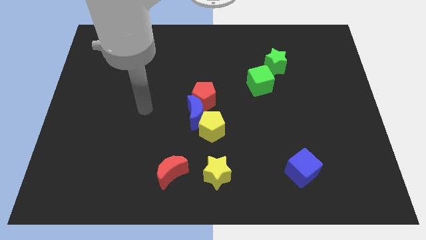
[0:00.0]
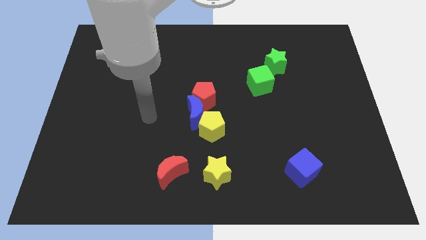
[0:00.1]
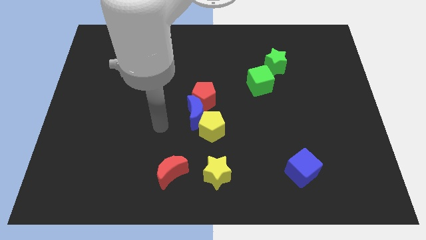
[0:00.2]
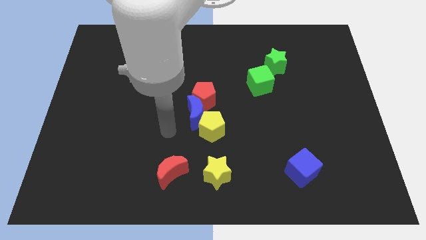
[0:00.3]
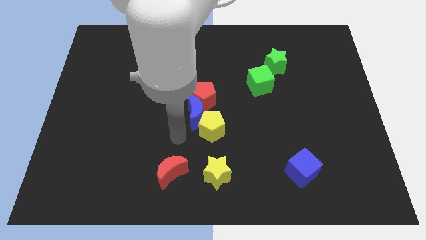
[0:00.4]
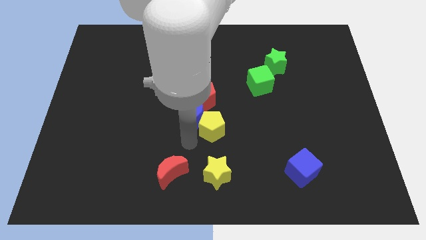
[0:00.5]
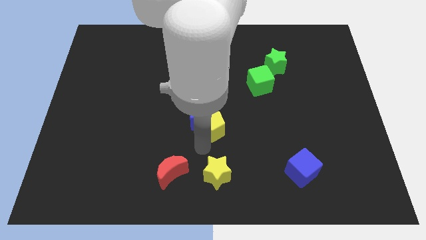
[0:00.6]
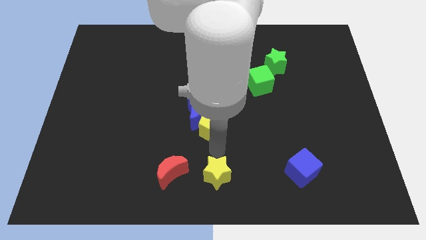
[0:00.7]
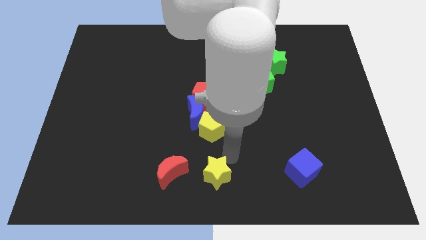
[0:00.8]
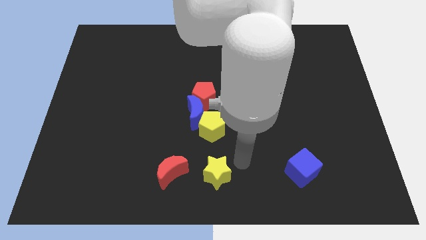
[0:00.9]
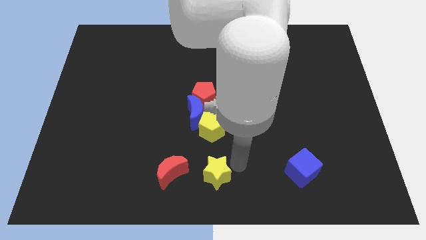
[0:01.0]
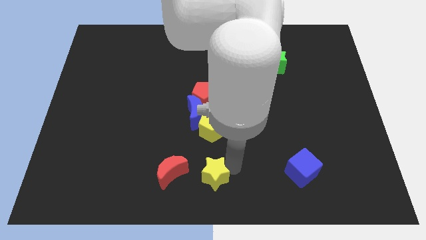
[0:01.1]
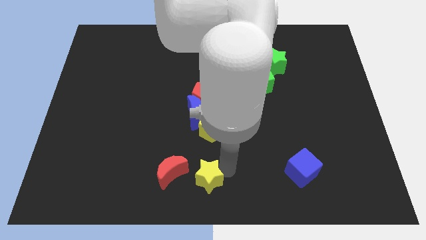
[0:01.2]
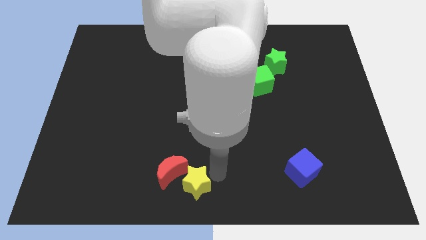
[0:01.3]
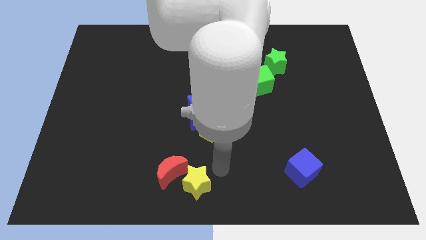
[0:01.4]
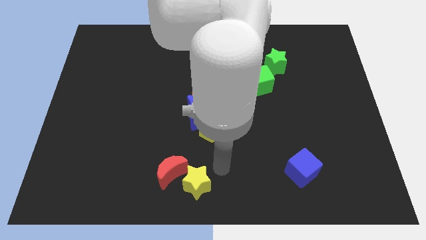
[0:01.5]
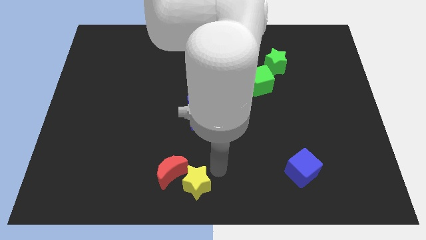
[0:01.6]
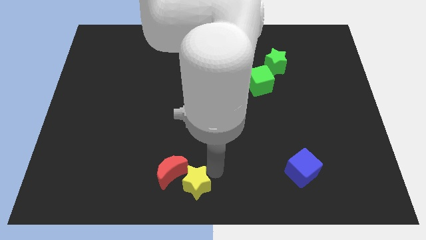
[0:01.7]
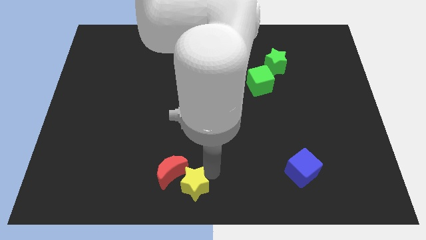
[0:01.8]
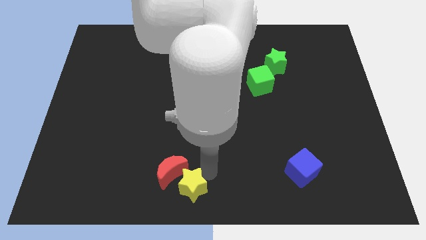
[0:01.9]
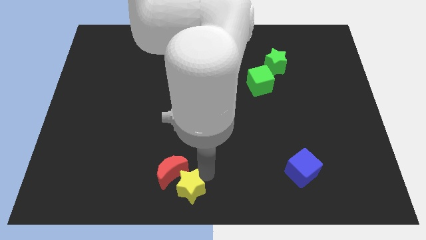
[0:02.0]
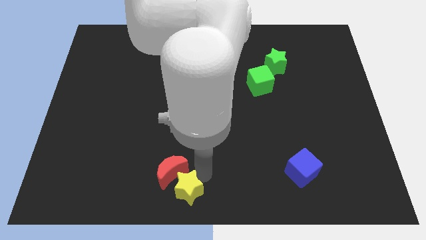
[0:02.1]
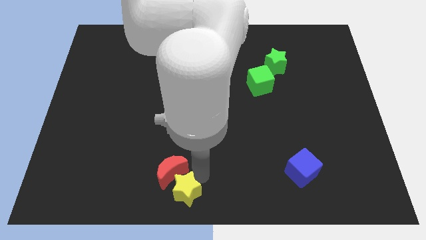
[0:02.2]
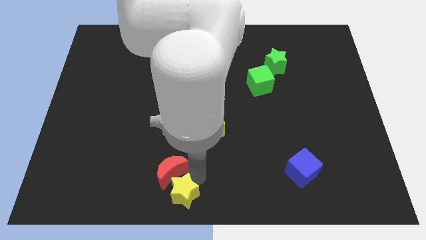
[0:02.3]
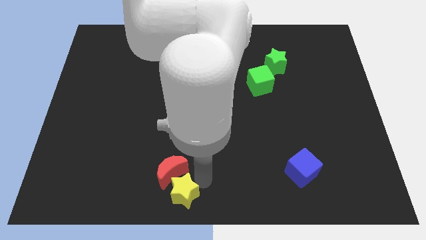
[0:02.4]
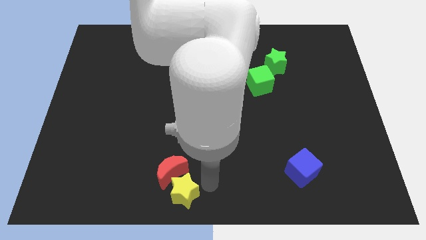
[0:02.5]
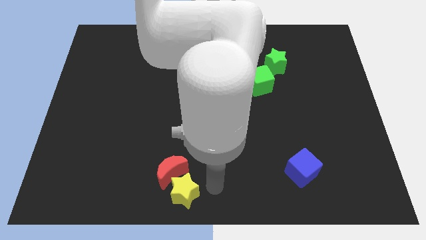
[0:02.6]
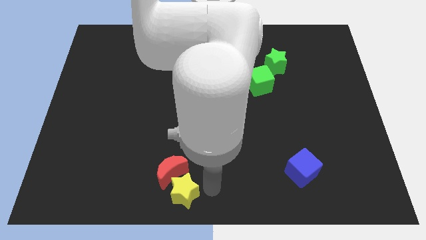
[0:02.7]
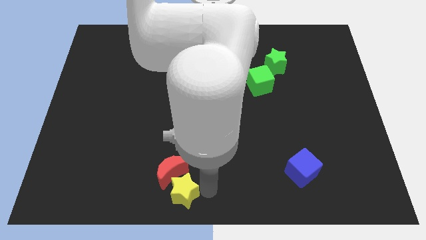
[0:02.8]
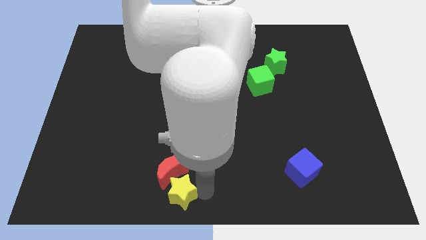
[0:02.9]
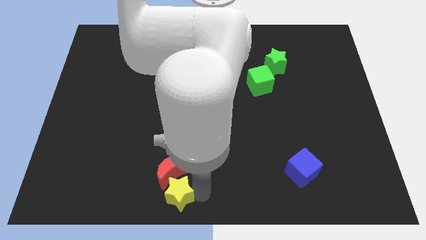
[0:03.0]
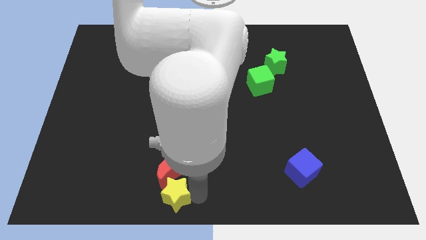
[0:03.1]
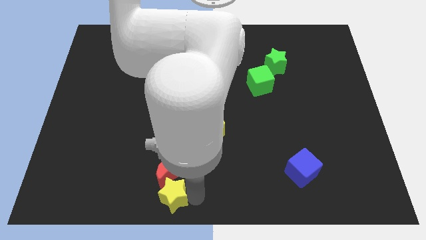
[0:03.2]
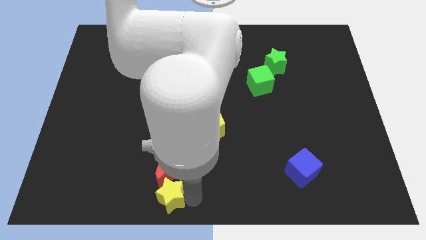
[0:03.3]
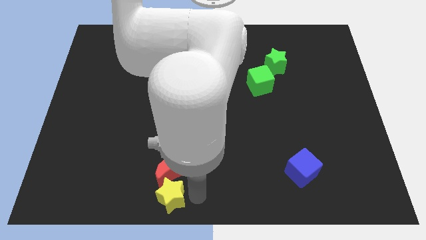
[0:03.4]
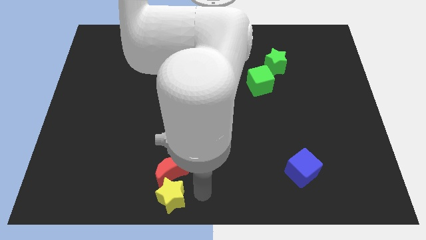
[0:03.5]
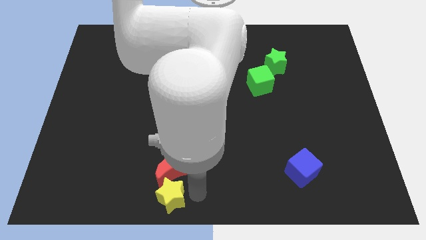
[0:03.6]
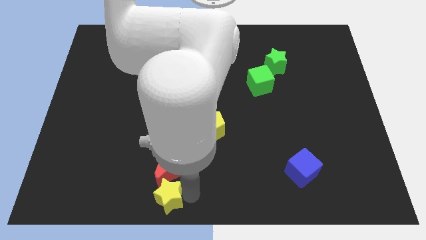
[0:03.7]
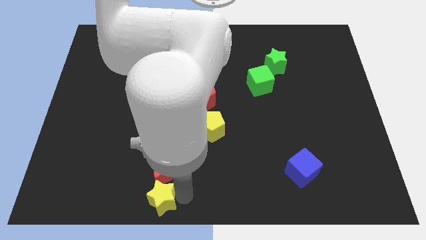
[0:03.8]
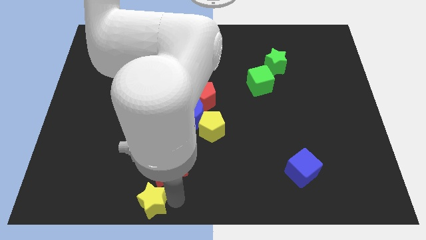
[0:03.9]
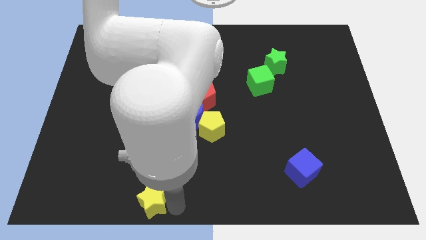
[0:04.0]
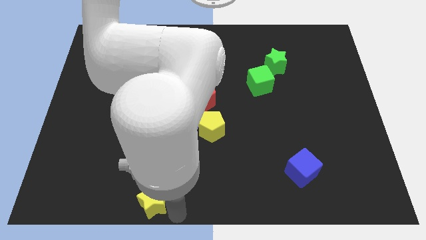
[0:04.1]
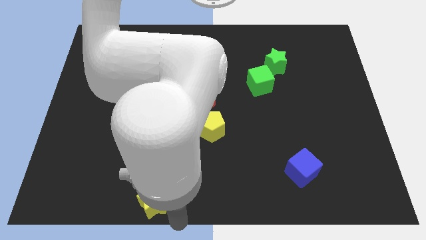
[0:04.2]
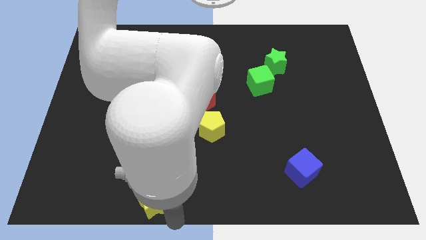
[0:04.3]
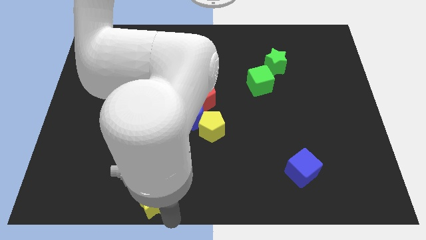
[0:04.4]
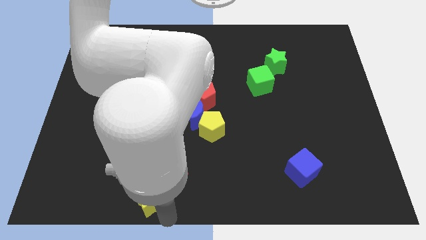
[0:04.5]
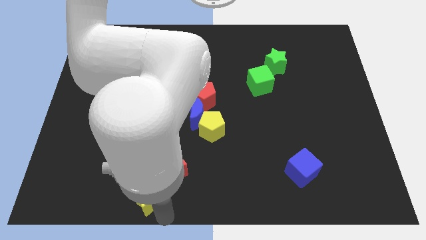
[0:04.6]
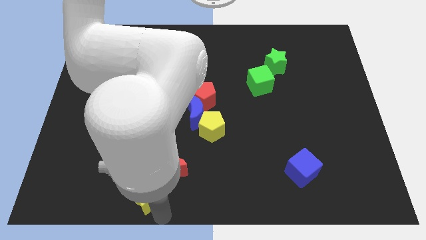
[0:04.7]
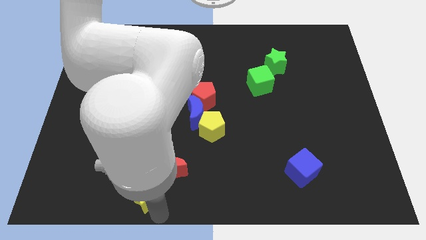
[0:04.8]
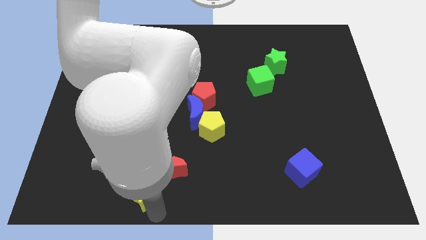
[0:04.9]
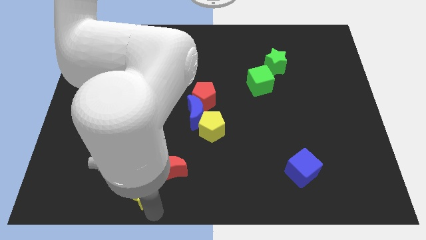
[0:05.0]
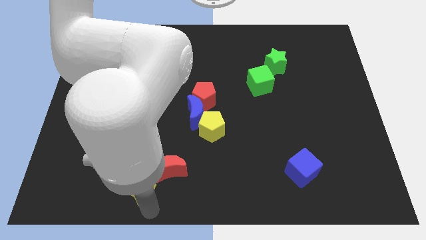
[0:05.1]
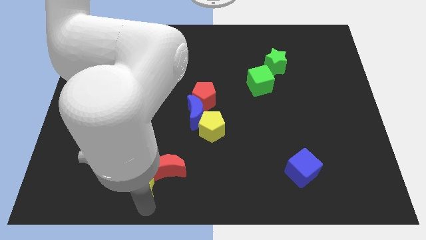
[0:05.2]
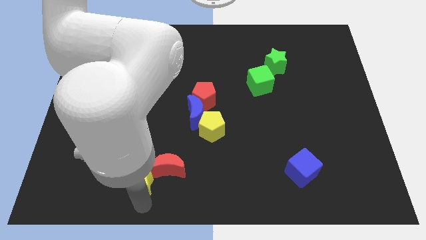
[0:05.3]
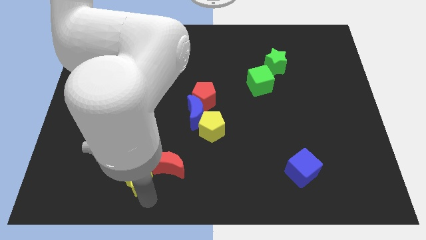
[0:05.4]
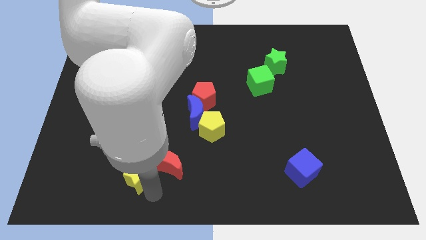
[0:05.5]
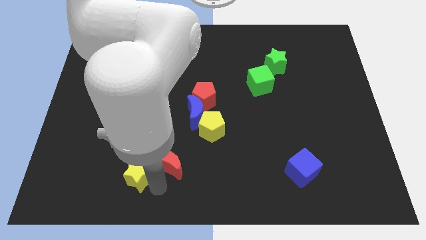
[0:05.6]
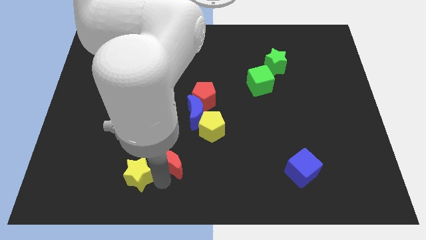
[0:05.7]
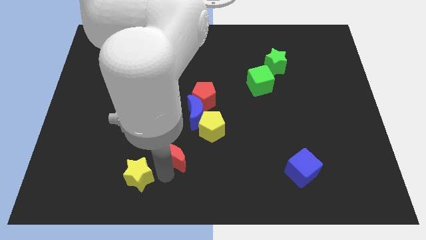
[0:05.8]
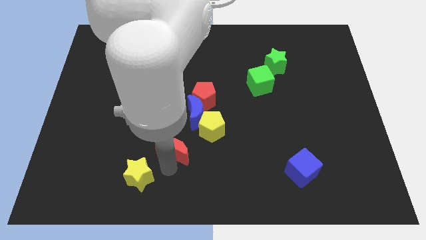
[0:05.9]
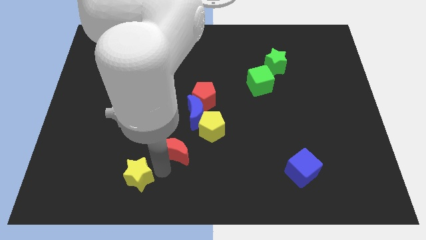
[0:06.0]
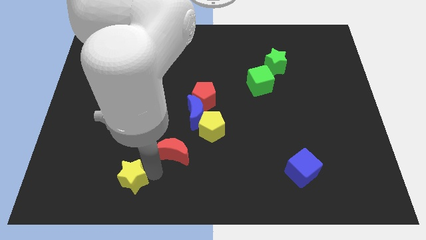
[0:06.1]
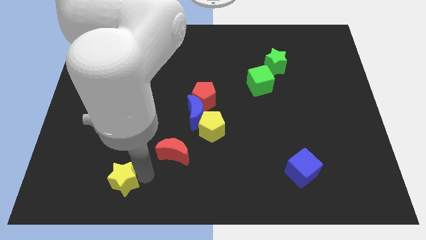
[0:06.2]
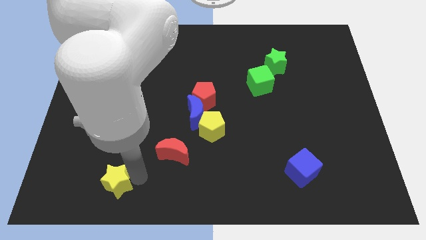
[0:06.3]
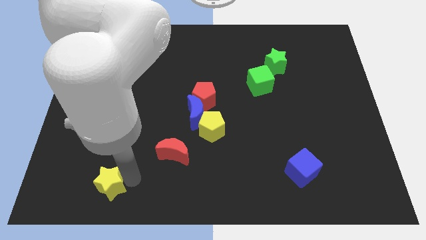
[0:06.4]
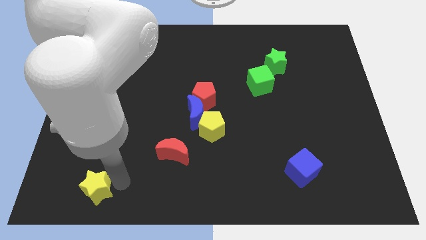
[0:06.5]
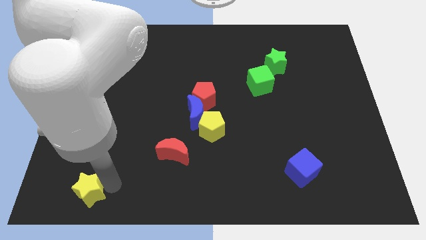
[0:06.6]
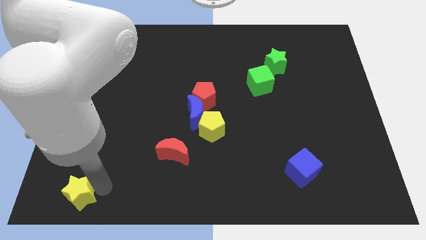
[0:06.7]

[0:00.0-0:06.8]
move the yellow star to the bottom left corner

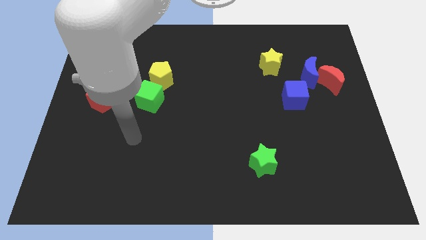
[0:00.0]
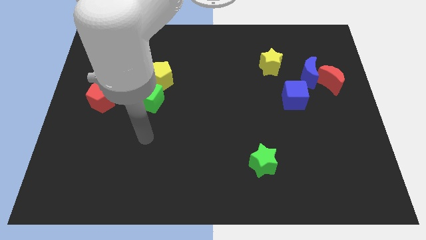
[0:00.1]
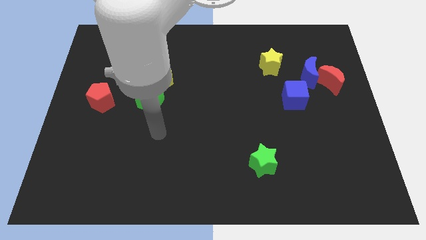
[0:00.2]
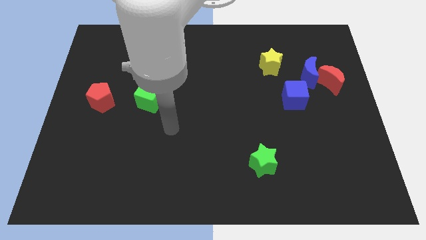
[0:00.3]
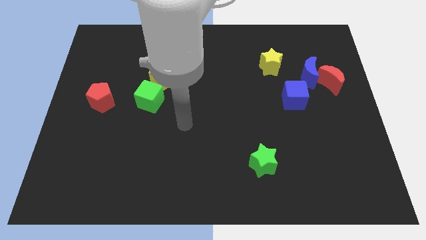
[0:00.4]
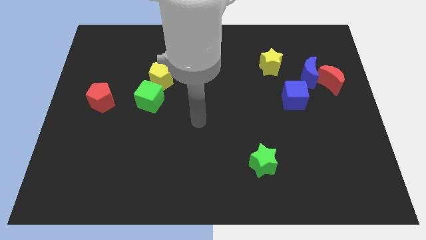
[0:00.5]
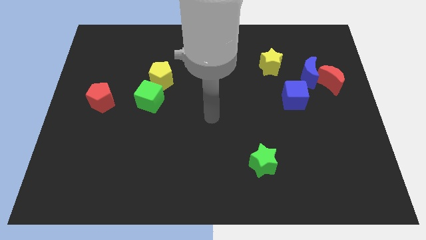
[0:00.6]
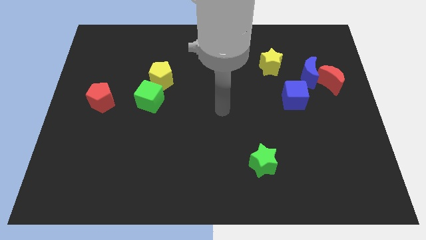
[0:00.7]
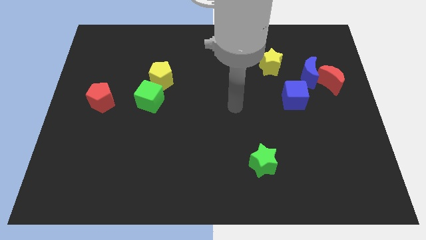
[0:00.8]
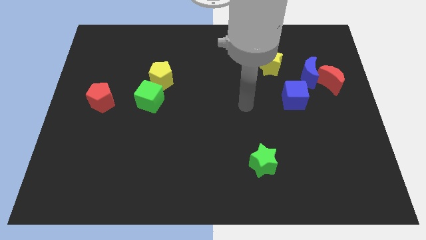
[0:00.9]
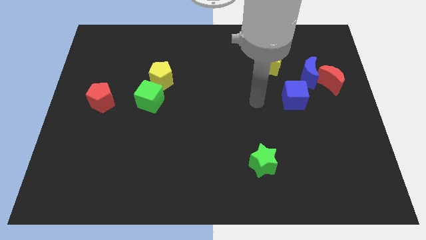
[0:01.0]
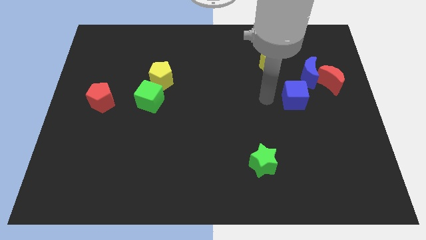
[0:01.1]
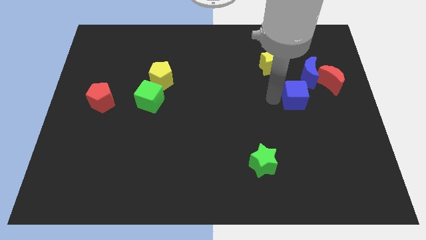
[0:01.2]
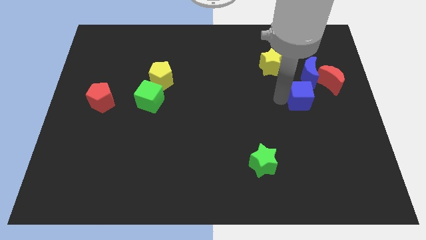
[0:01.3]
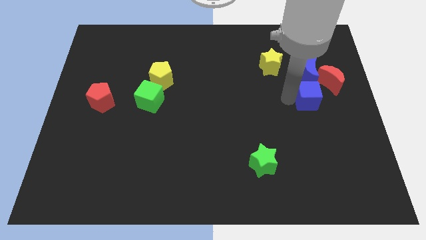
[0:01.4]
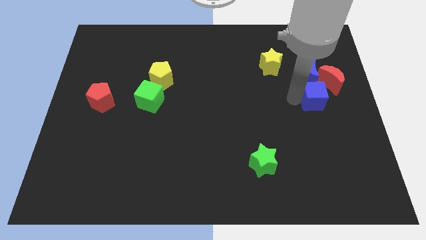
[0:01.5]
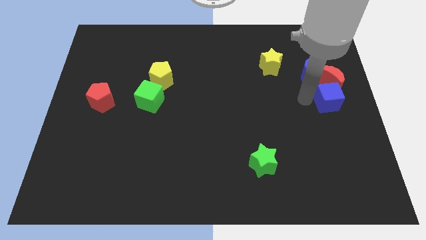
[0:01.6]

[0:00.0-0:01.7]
move the blue cube to the center right
